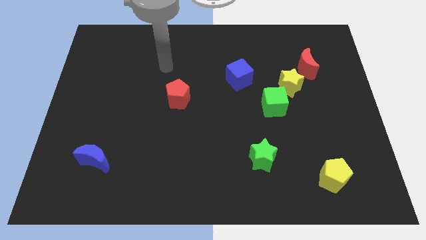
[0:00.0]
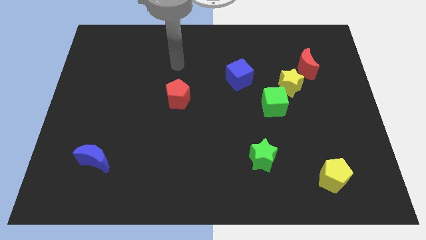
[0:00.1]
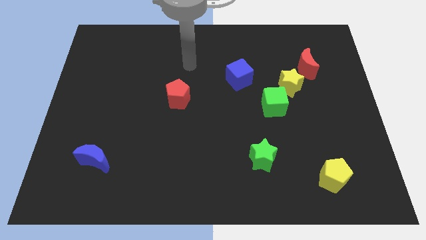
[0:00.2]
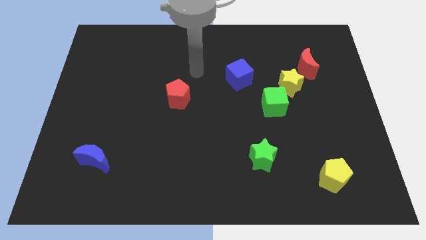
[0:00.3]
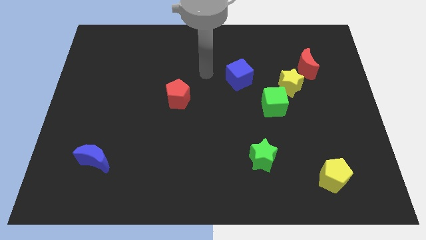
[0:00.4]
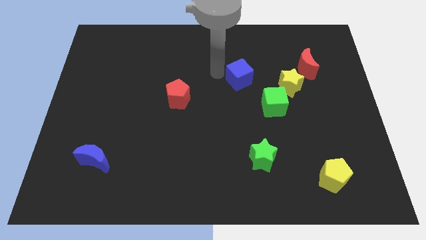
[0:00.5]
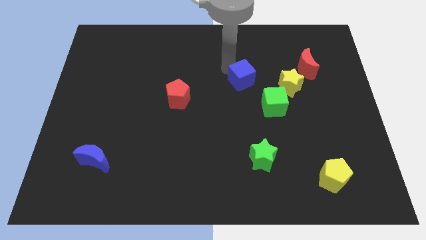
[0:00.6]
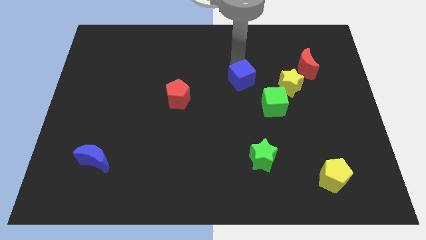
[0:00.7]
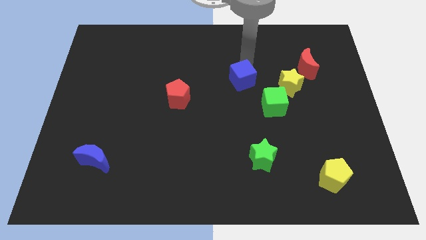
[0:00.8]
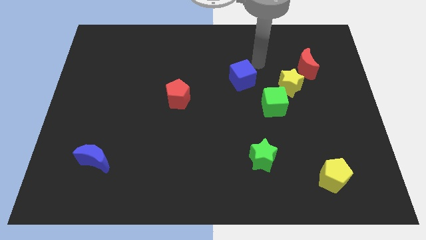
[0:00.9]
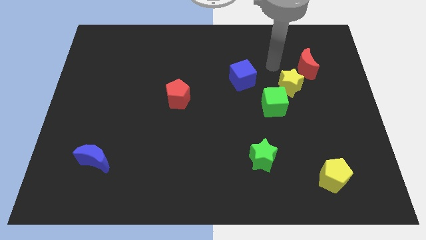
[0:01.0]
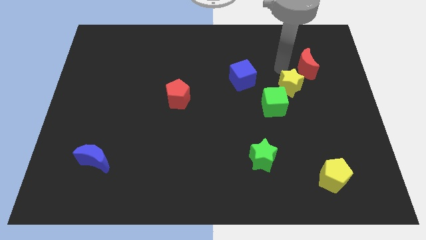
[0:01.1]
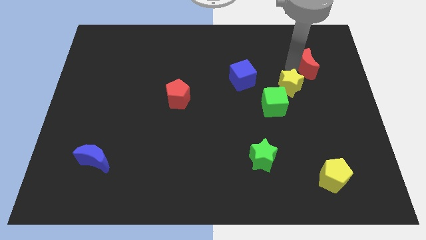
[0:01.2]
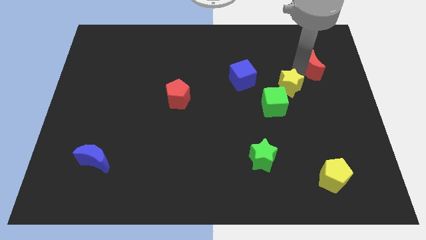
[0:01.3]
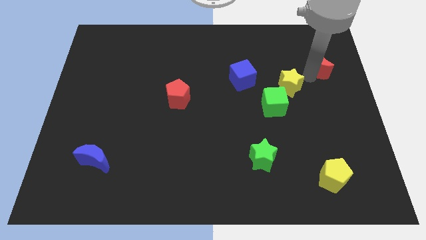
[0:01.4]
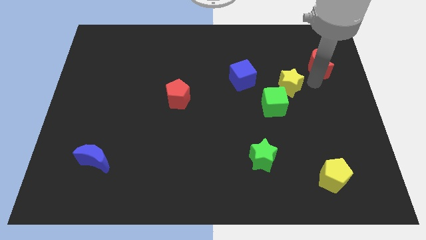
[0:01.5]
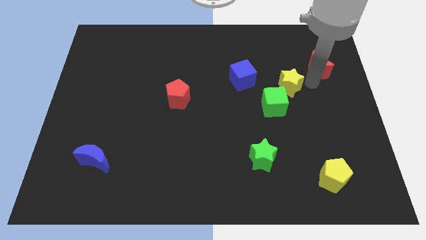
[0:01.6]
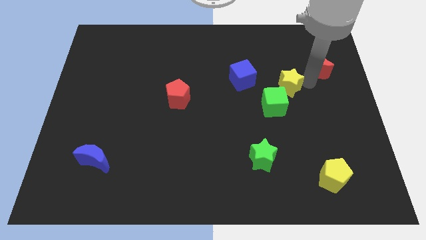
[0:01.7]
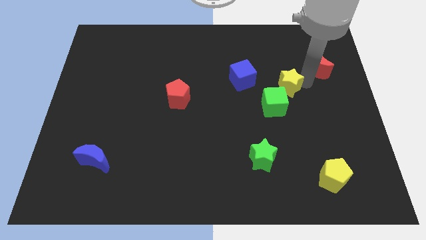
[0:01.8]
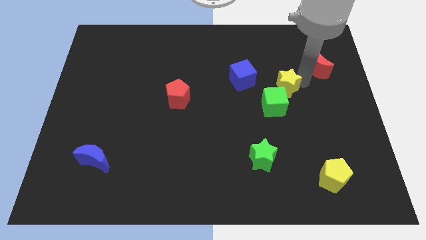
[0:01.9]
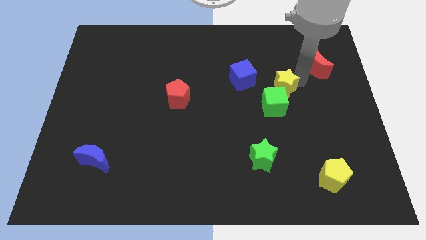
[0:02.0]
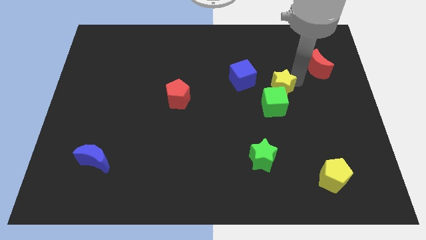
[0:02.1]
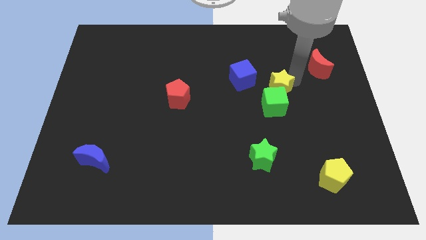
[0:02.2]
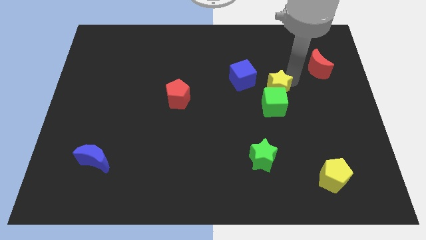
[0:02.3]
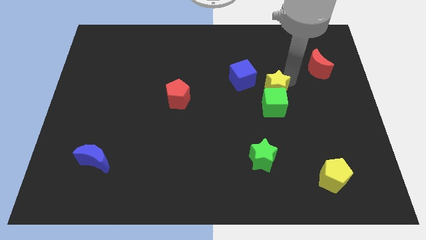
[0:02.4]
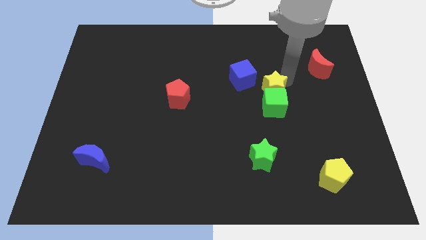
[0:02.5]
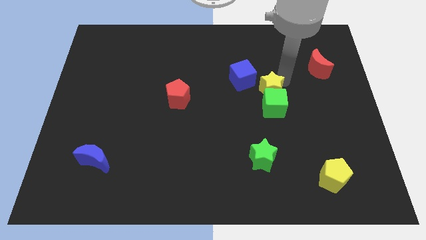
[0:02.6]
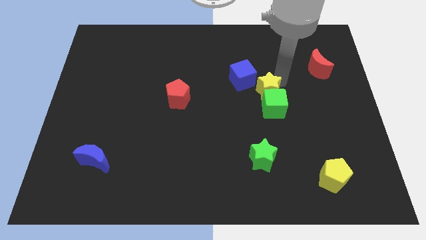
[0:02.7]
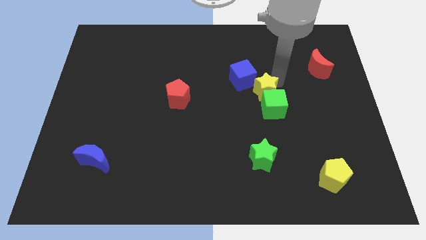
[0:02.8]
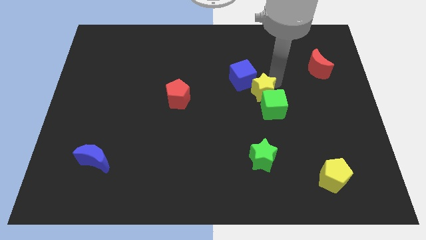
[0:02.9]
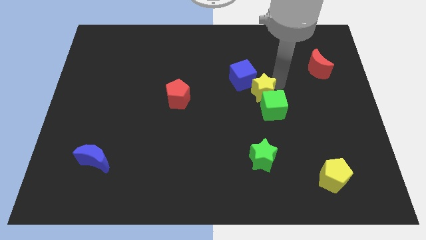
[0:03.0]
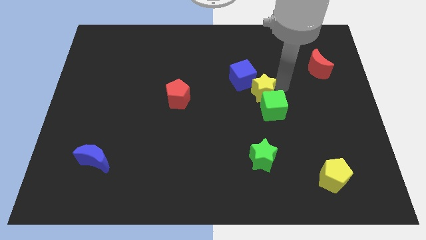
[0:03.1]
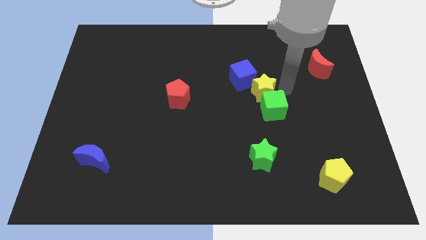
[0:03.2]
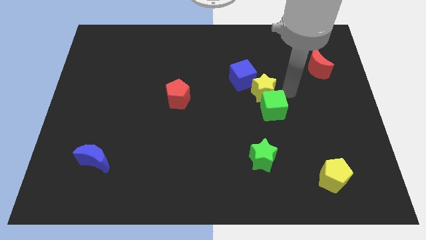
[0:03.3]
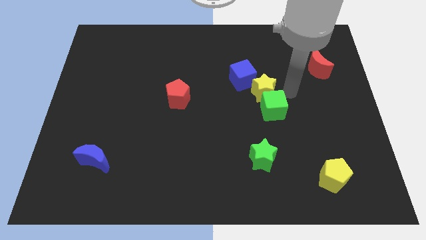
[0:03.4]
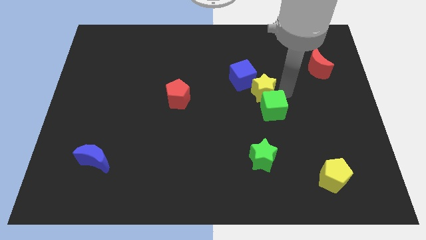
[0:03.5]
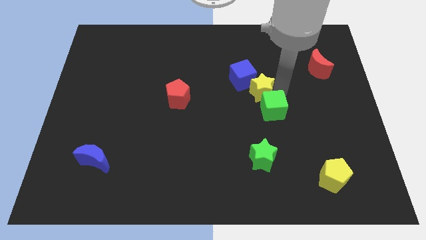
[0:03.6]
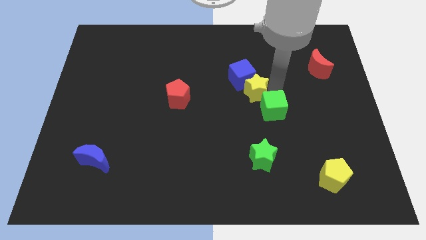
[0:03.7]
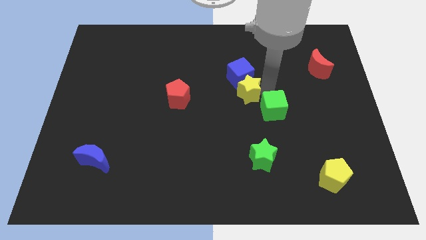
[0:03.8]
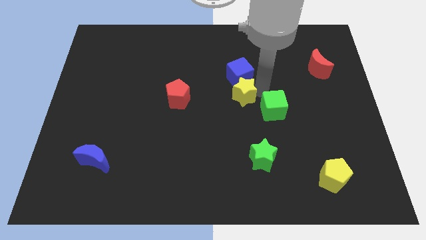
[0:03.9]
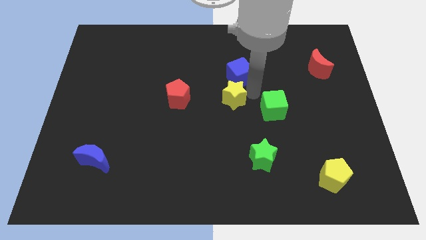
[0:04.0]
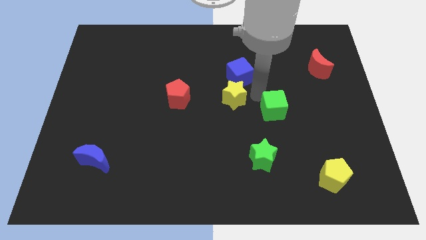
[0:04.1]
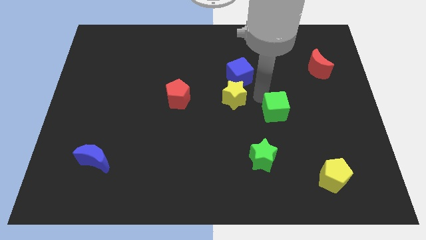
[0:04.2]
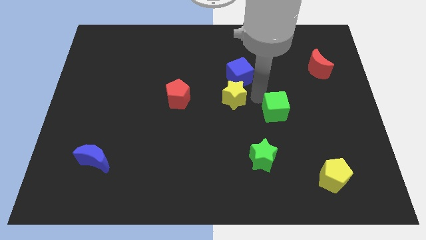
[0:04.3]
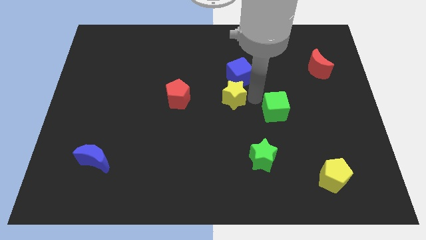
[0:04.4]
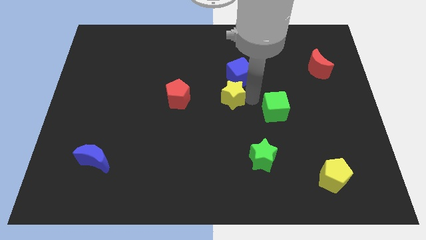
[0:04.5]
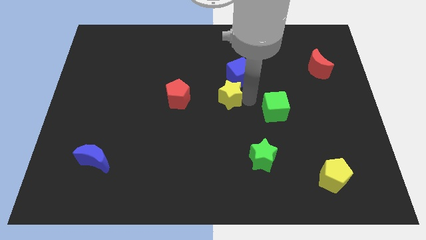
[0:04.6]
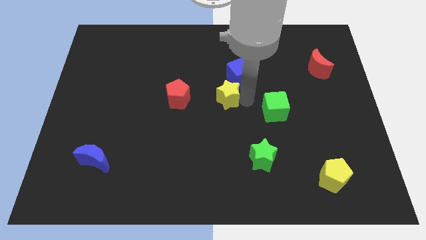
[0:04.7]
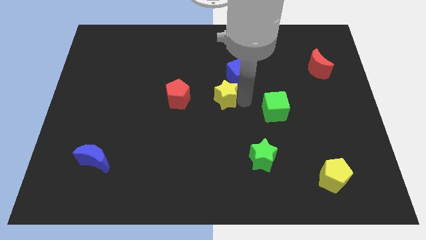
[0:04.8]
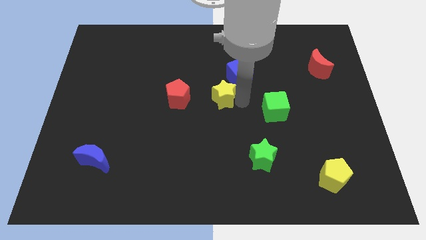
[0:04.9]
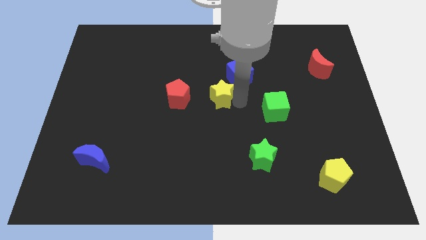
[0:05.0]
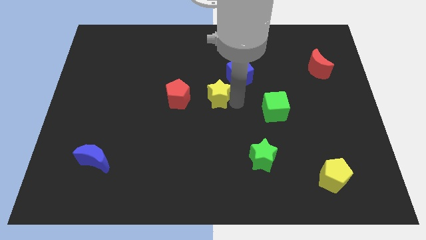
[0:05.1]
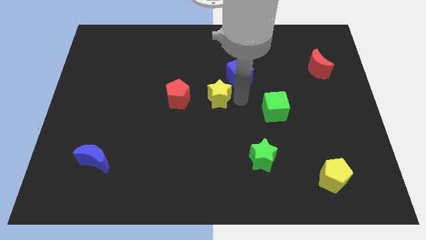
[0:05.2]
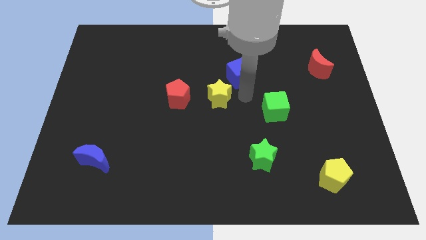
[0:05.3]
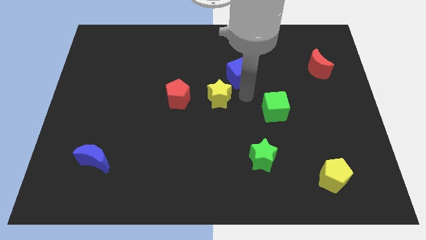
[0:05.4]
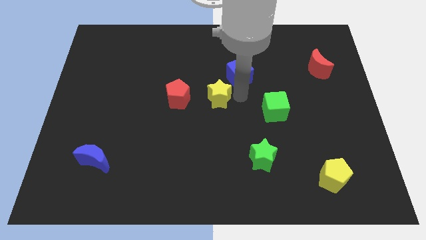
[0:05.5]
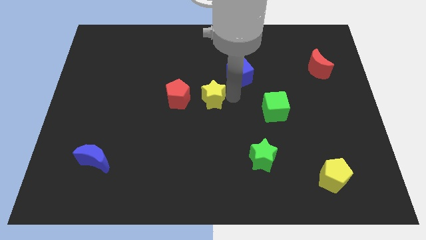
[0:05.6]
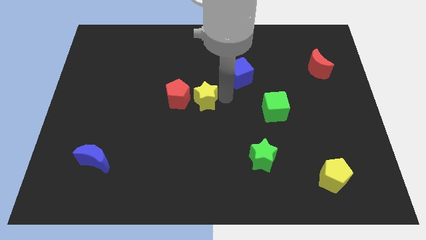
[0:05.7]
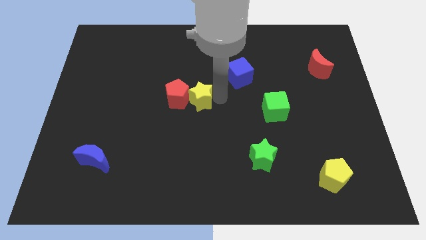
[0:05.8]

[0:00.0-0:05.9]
move the yellow star next to the red pentagon

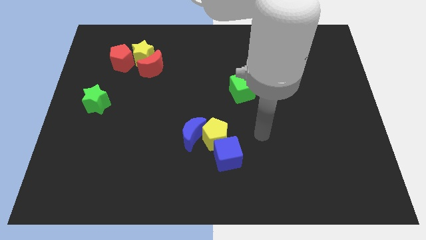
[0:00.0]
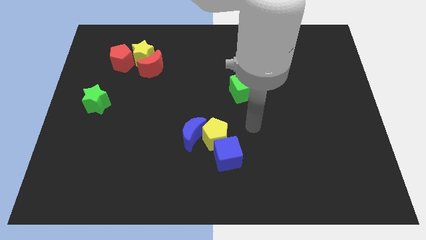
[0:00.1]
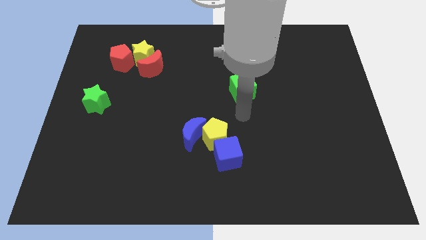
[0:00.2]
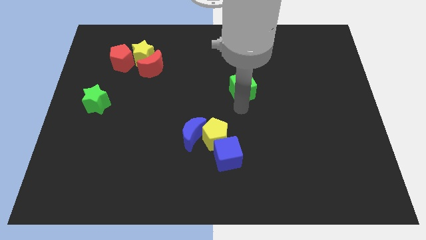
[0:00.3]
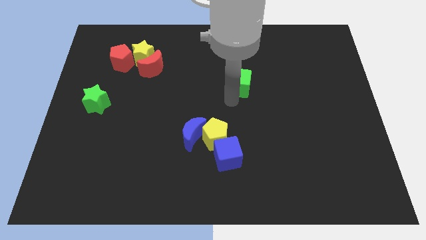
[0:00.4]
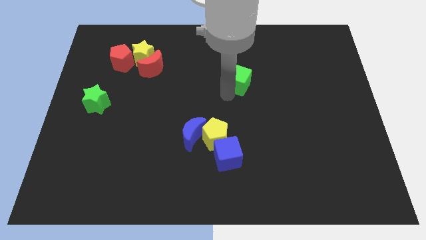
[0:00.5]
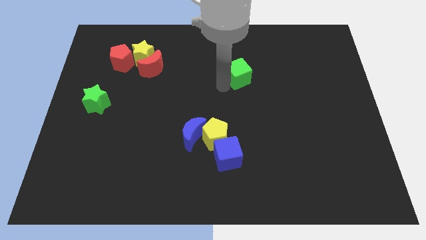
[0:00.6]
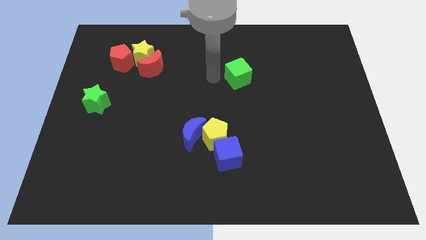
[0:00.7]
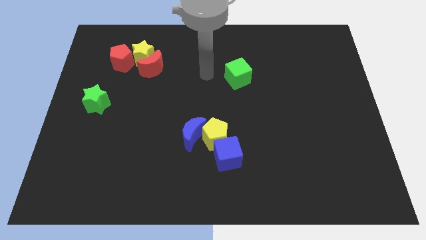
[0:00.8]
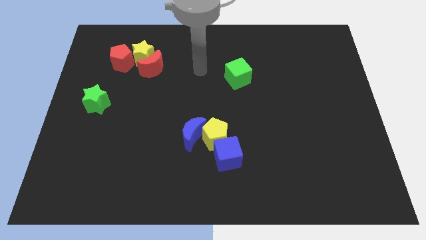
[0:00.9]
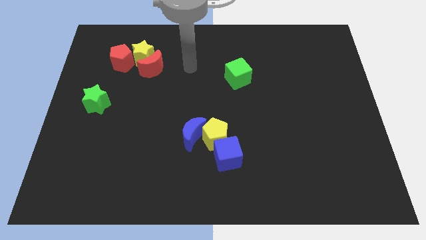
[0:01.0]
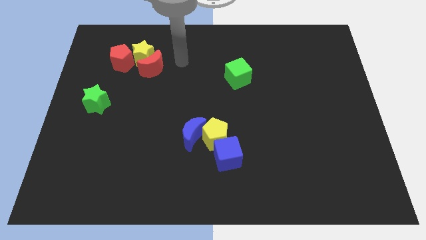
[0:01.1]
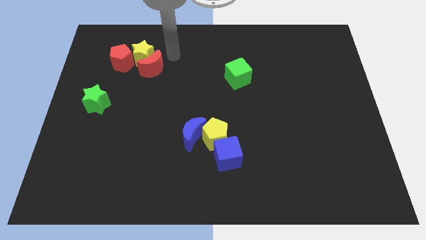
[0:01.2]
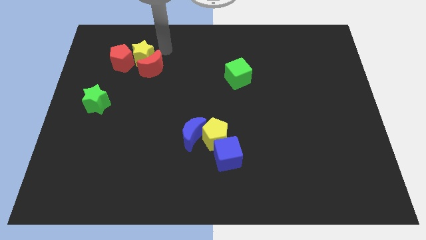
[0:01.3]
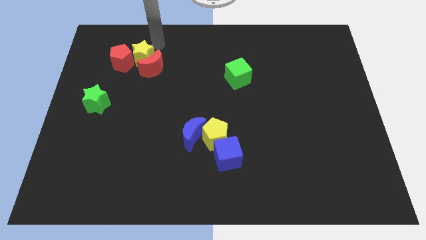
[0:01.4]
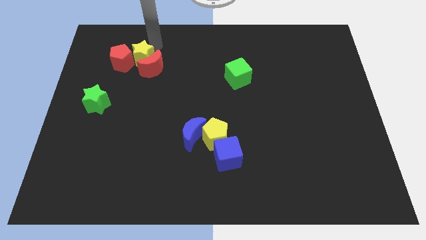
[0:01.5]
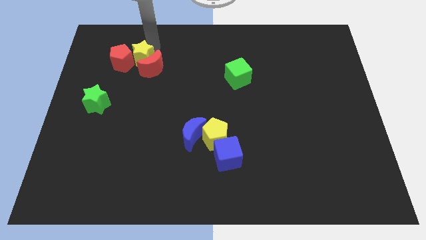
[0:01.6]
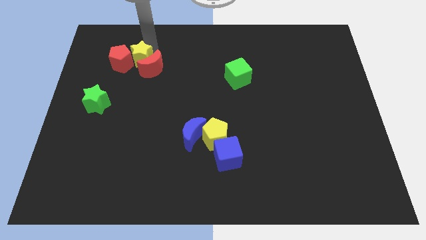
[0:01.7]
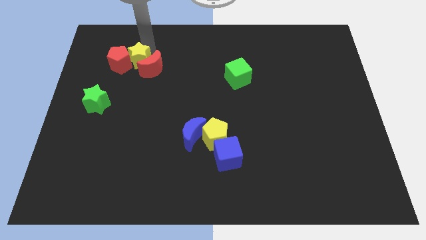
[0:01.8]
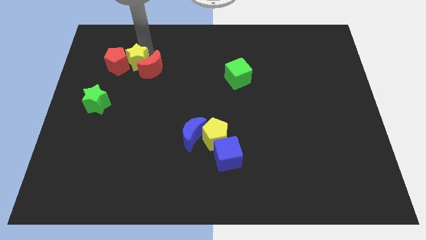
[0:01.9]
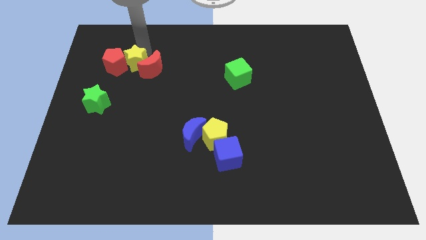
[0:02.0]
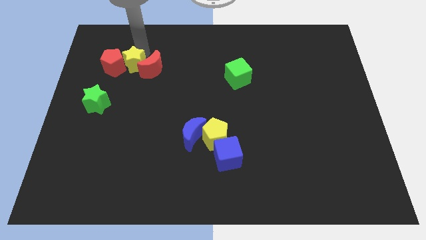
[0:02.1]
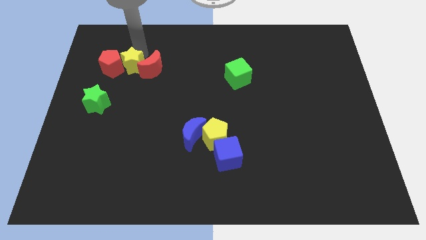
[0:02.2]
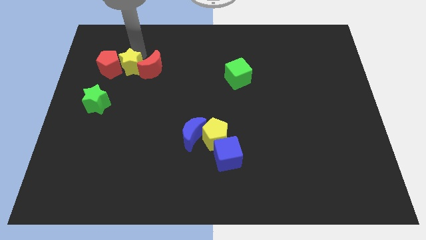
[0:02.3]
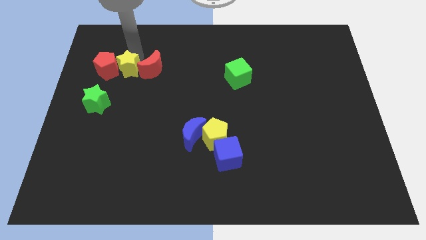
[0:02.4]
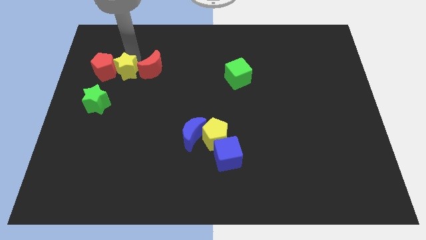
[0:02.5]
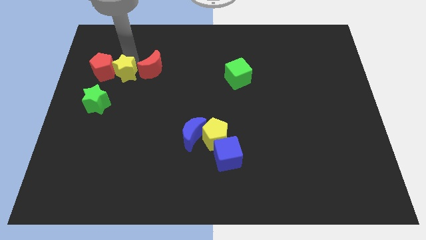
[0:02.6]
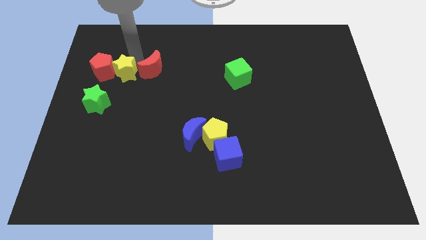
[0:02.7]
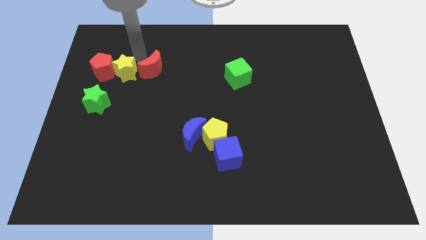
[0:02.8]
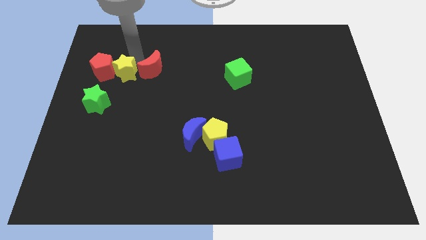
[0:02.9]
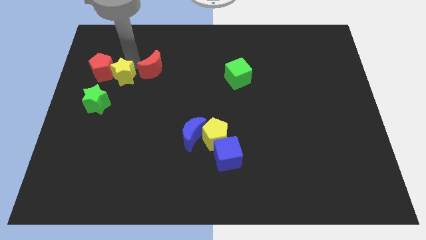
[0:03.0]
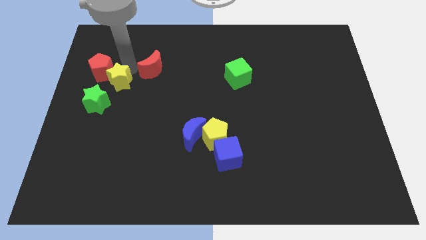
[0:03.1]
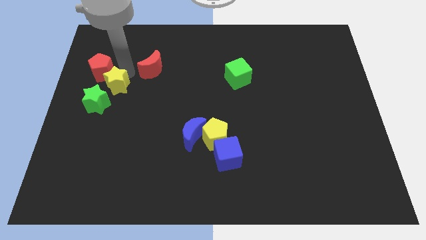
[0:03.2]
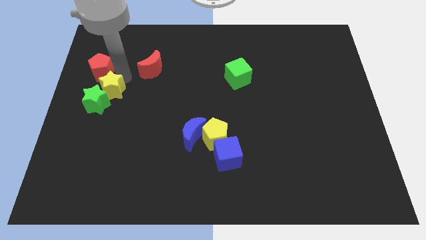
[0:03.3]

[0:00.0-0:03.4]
slide the yellow star next to the green star
